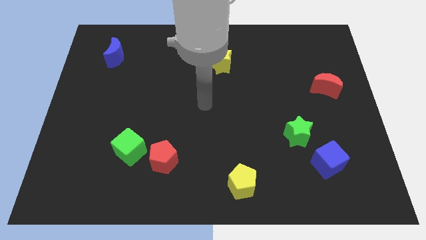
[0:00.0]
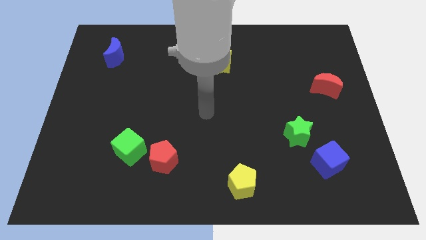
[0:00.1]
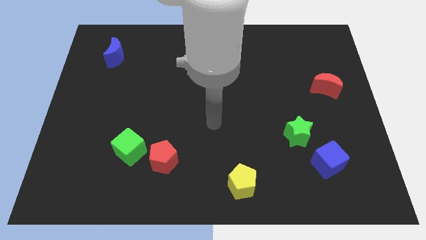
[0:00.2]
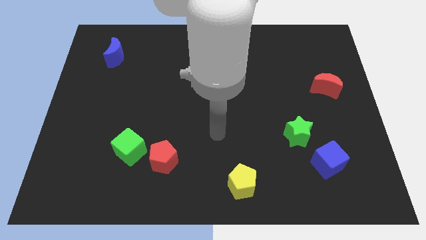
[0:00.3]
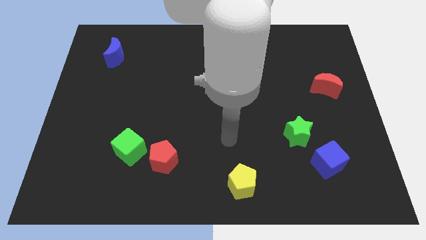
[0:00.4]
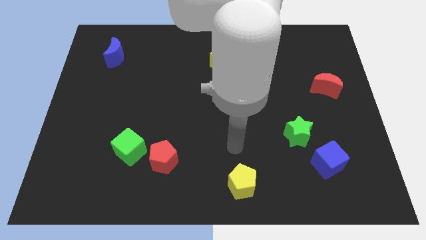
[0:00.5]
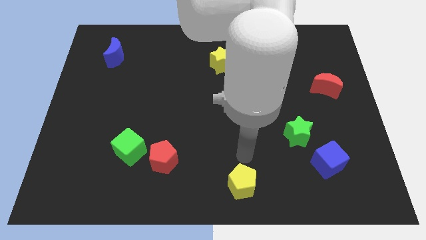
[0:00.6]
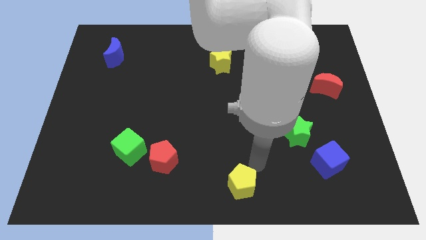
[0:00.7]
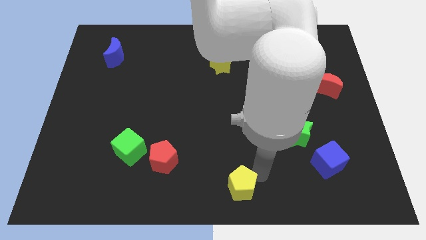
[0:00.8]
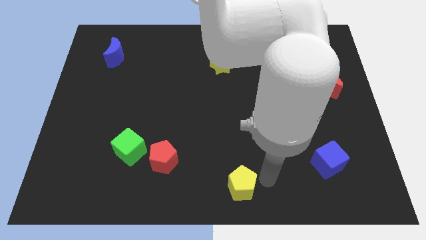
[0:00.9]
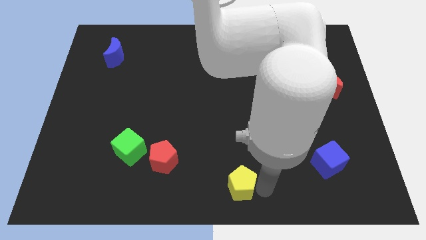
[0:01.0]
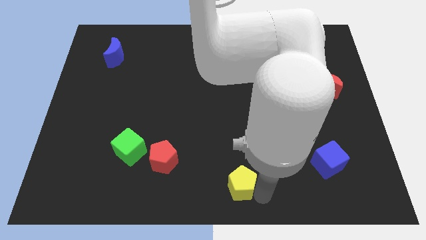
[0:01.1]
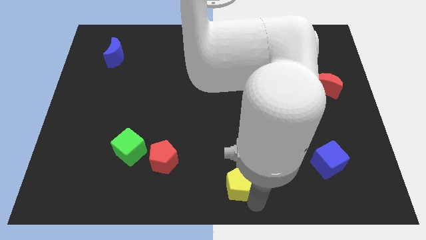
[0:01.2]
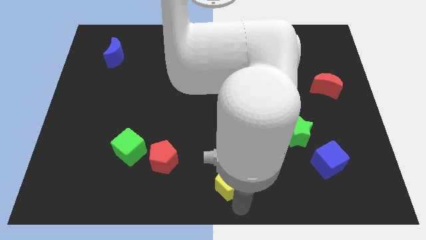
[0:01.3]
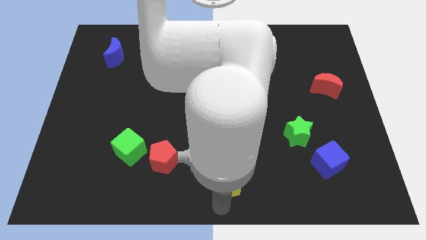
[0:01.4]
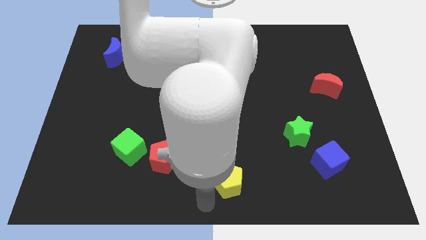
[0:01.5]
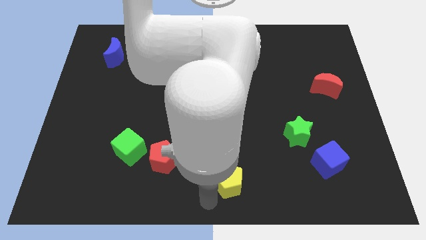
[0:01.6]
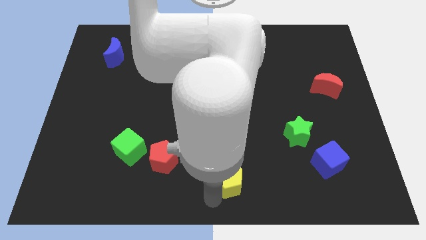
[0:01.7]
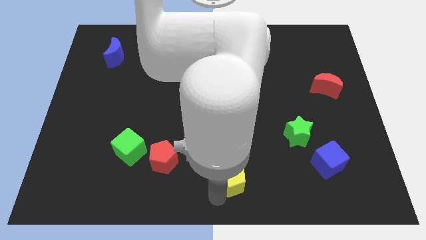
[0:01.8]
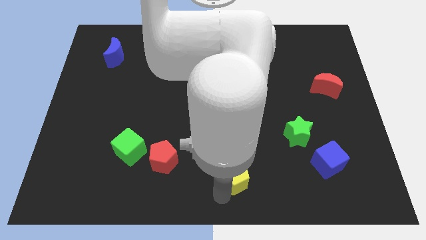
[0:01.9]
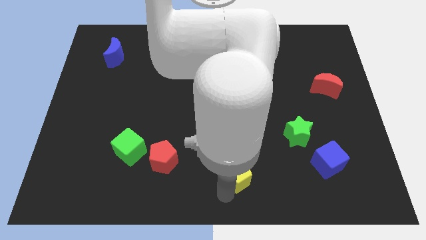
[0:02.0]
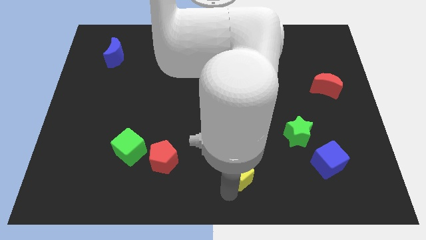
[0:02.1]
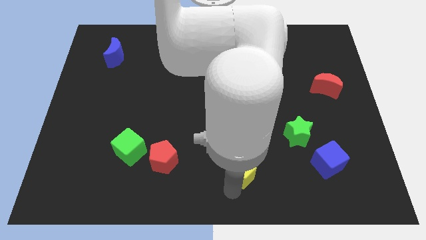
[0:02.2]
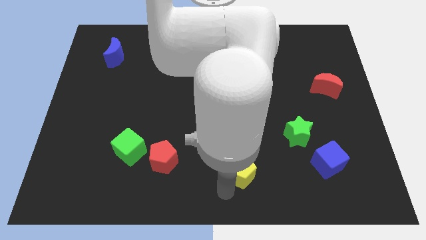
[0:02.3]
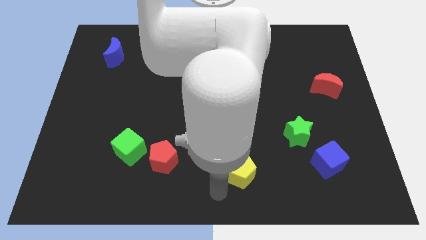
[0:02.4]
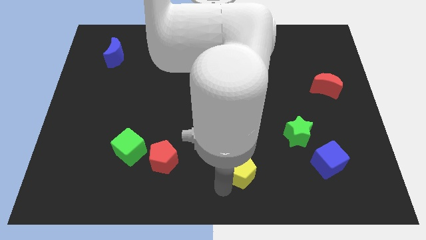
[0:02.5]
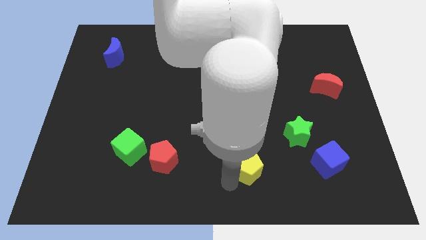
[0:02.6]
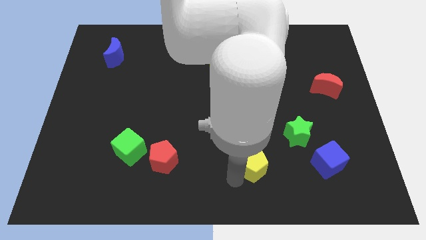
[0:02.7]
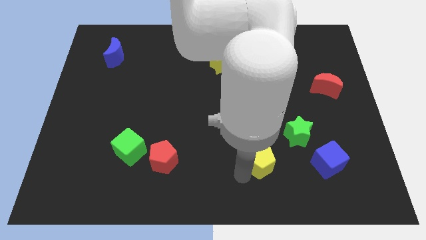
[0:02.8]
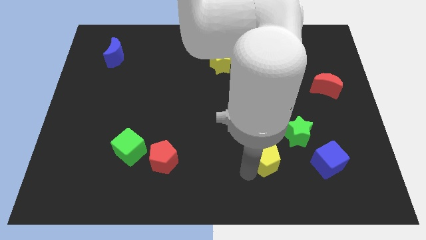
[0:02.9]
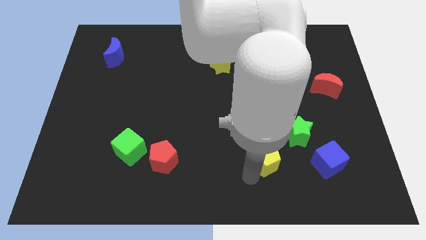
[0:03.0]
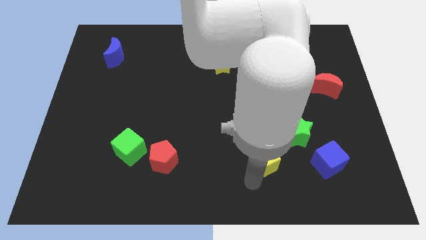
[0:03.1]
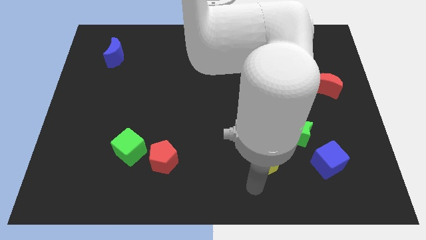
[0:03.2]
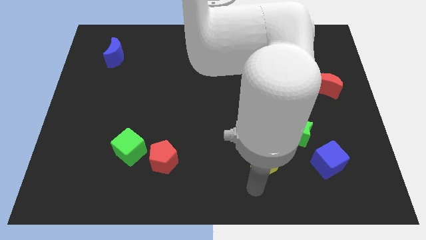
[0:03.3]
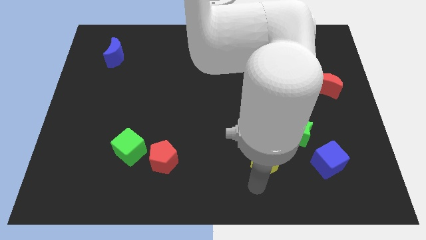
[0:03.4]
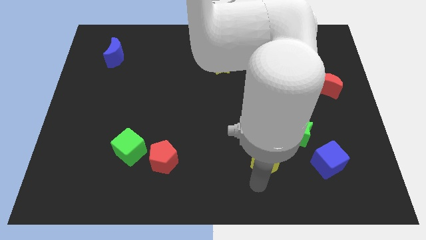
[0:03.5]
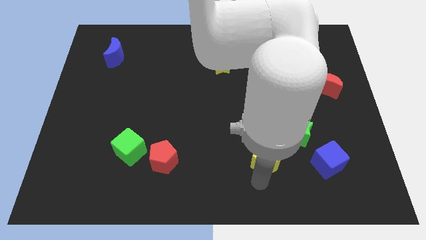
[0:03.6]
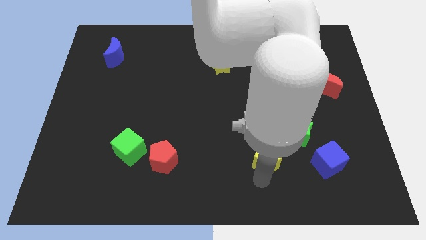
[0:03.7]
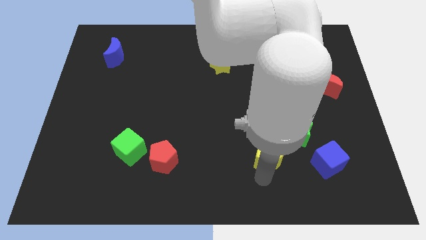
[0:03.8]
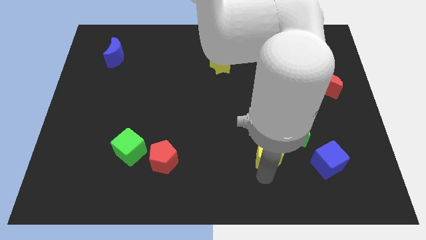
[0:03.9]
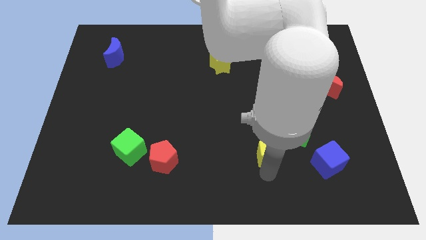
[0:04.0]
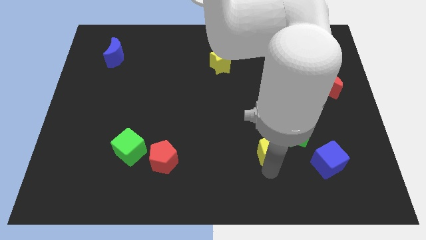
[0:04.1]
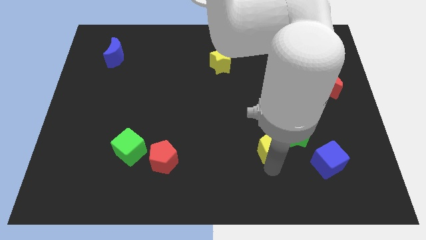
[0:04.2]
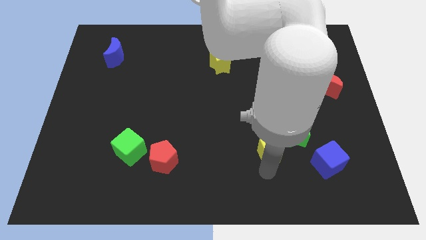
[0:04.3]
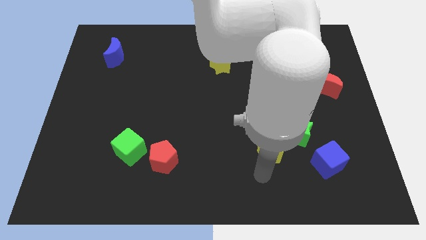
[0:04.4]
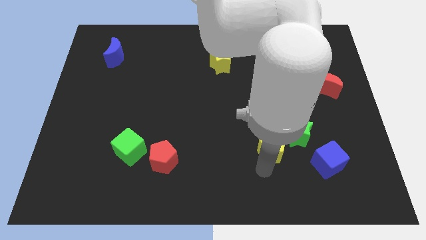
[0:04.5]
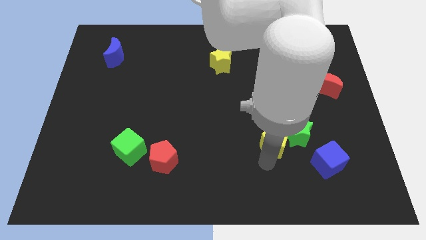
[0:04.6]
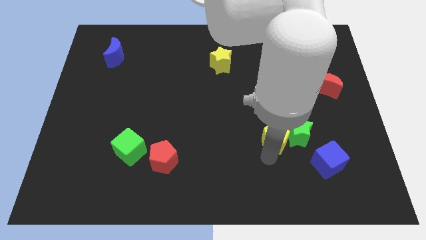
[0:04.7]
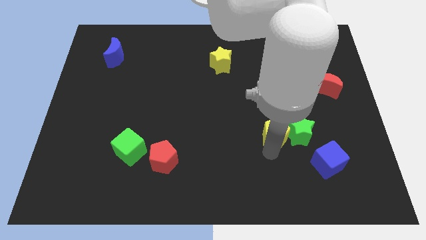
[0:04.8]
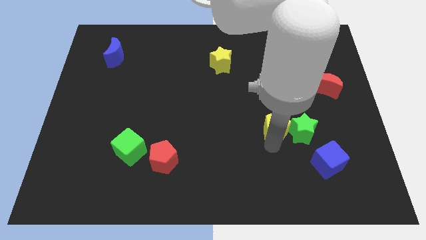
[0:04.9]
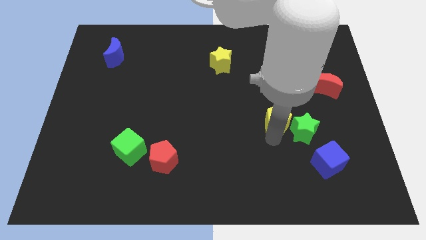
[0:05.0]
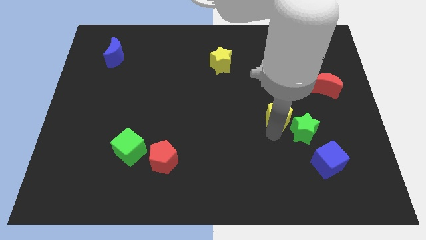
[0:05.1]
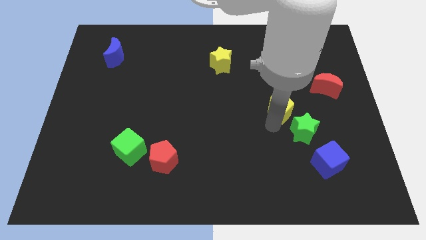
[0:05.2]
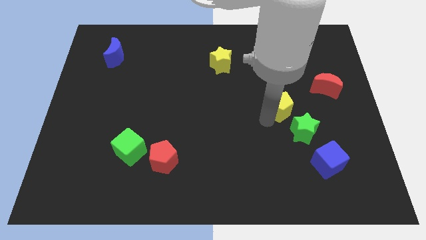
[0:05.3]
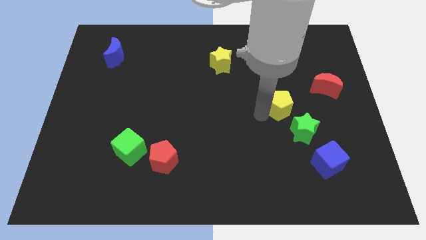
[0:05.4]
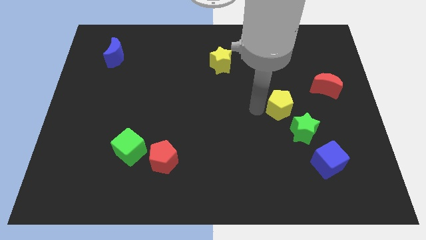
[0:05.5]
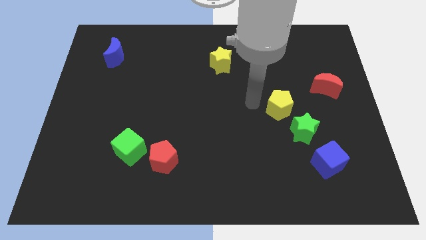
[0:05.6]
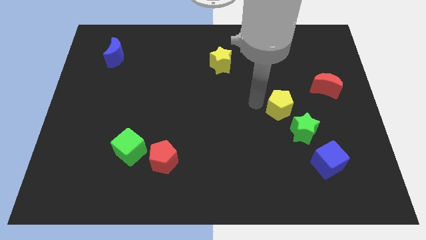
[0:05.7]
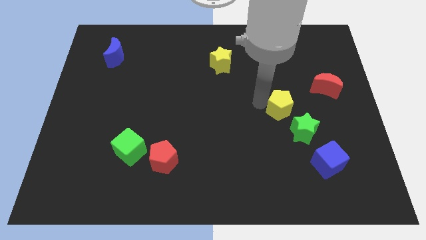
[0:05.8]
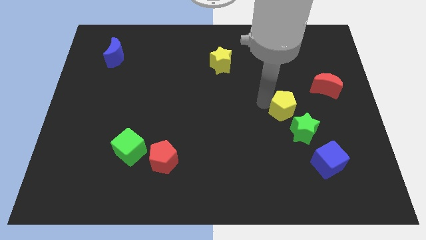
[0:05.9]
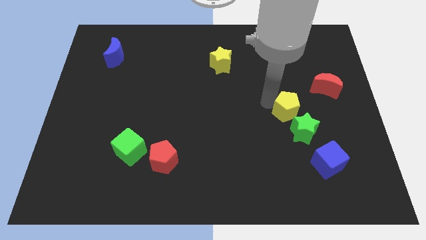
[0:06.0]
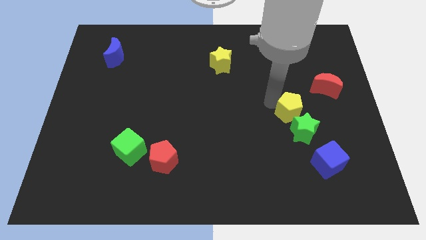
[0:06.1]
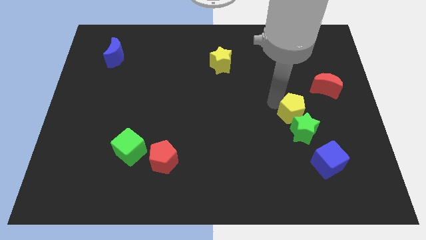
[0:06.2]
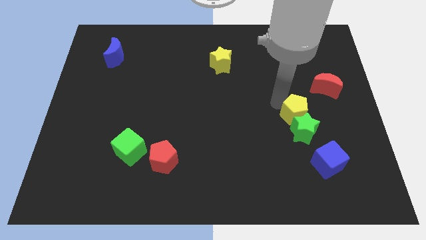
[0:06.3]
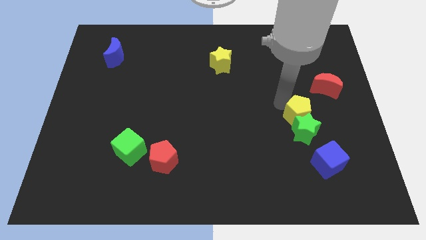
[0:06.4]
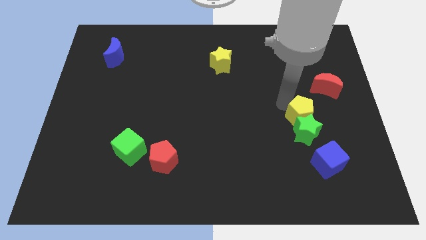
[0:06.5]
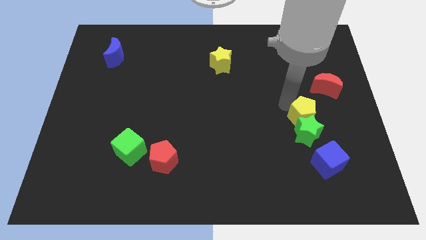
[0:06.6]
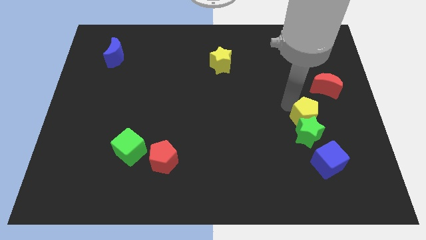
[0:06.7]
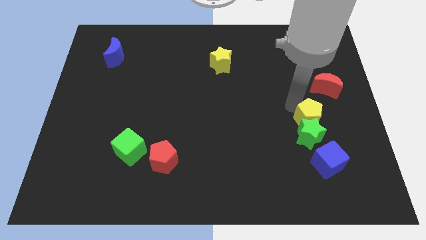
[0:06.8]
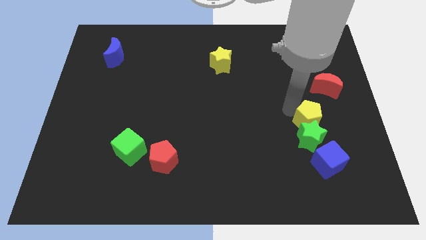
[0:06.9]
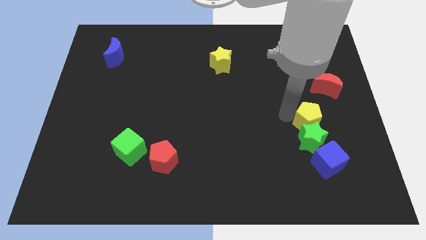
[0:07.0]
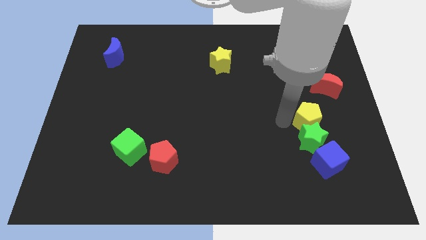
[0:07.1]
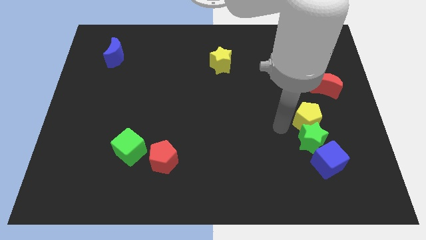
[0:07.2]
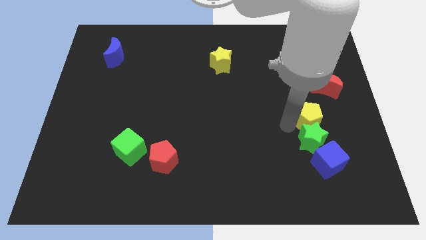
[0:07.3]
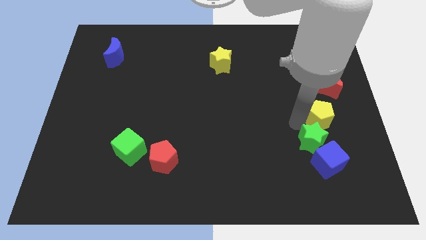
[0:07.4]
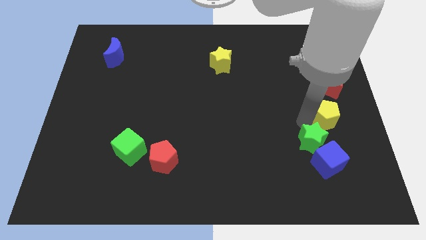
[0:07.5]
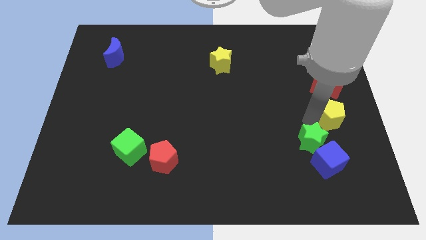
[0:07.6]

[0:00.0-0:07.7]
push the yellow pentagon to the center right
